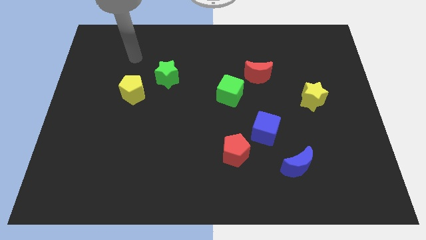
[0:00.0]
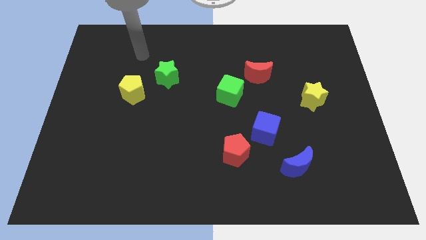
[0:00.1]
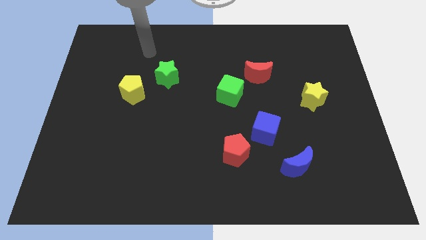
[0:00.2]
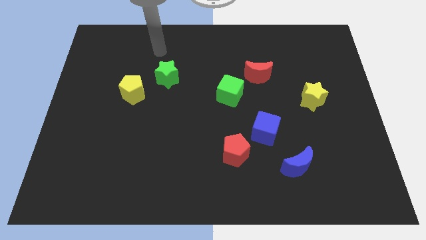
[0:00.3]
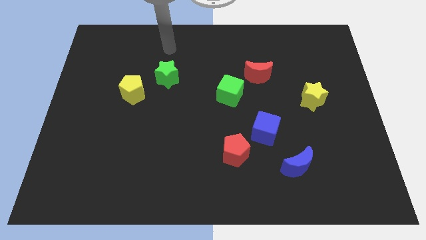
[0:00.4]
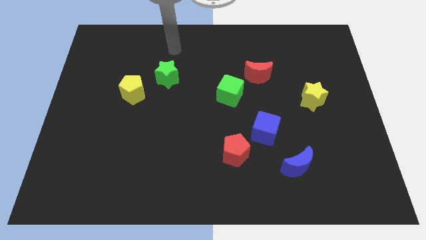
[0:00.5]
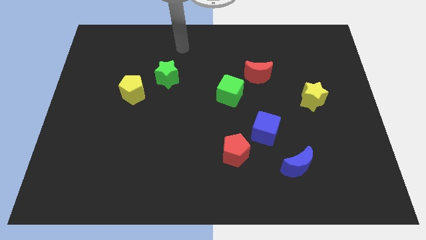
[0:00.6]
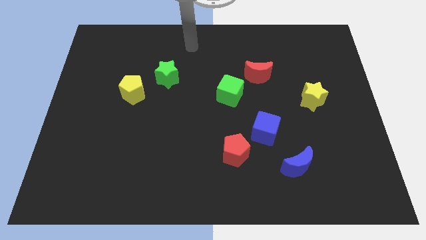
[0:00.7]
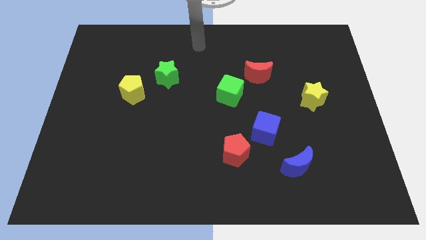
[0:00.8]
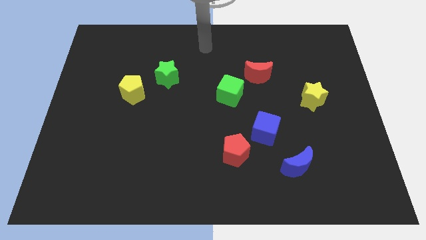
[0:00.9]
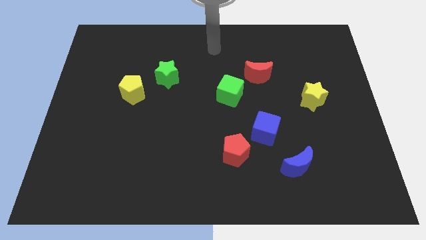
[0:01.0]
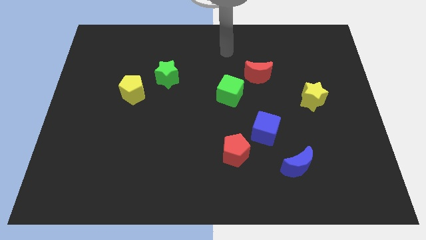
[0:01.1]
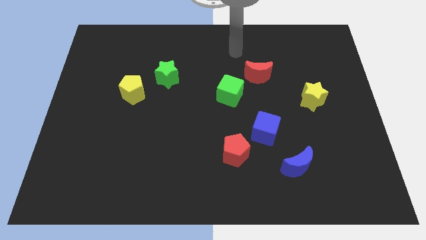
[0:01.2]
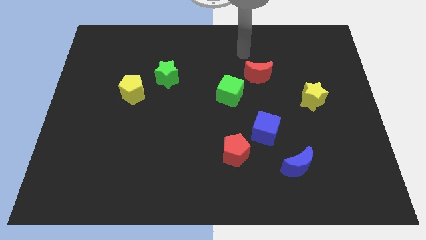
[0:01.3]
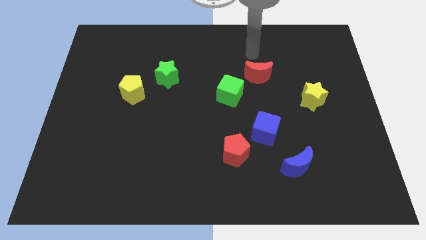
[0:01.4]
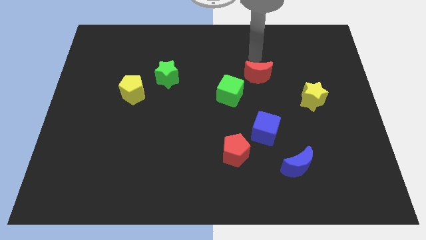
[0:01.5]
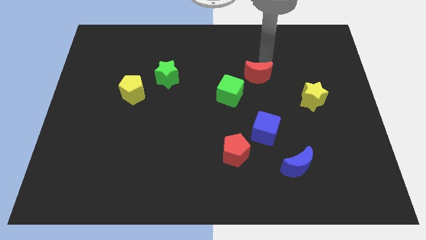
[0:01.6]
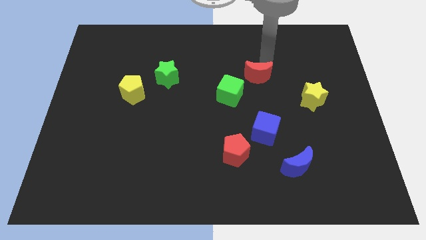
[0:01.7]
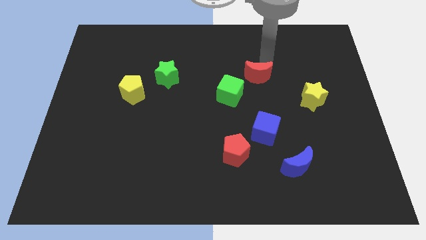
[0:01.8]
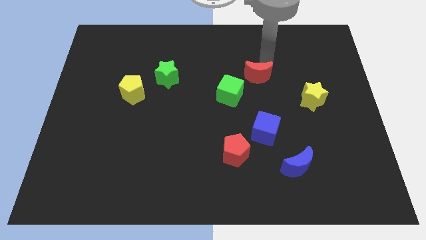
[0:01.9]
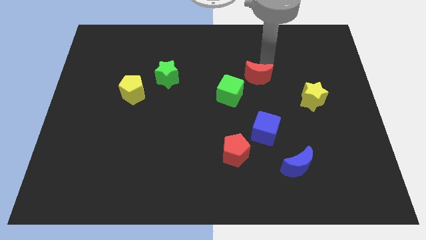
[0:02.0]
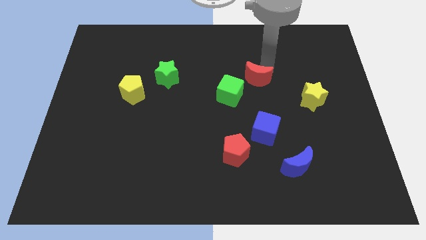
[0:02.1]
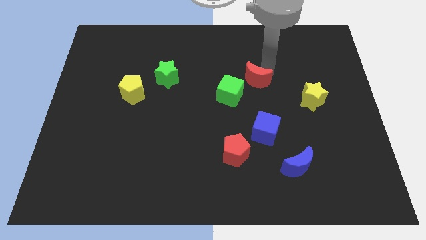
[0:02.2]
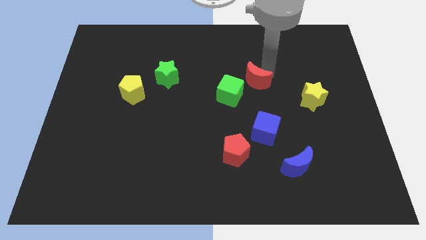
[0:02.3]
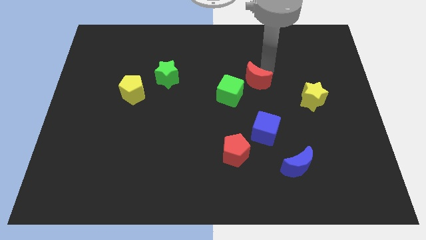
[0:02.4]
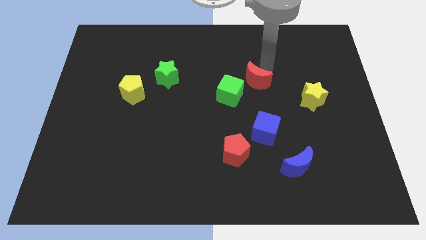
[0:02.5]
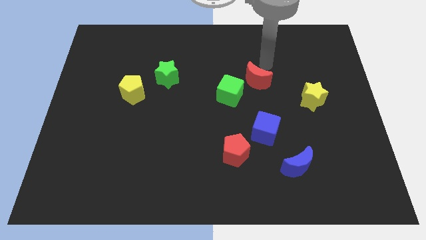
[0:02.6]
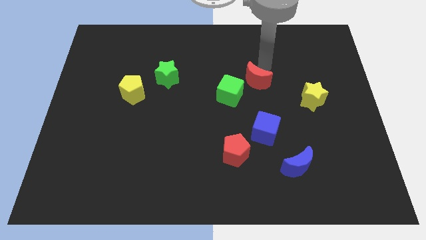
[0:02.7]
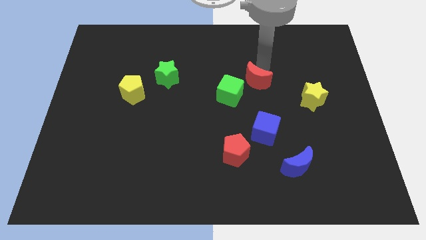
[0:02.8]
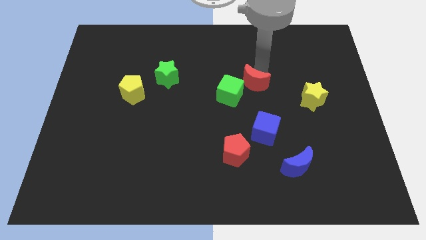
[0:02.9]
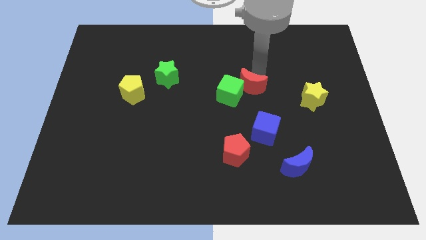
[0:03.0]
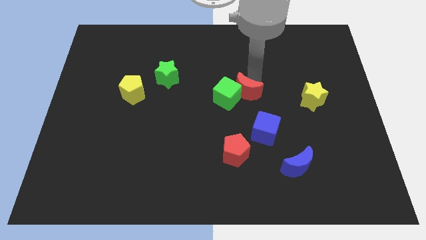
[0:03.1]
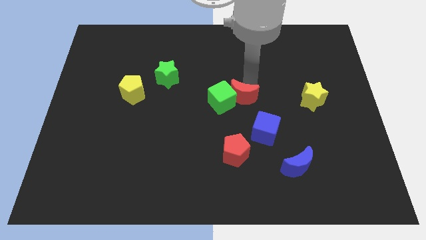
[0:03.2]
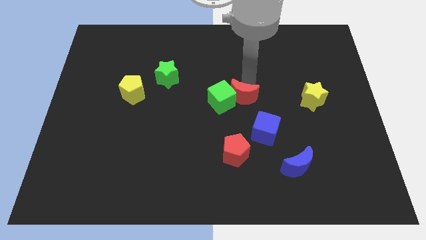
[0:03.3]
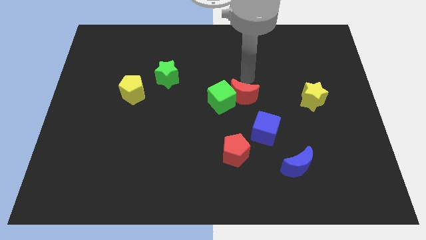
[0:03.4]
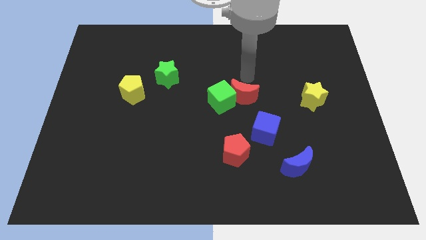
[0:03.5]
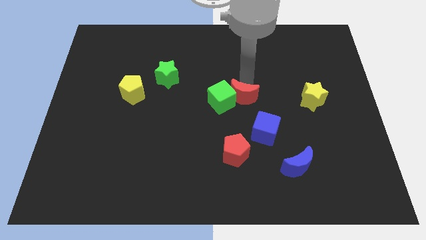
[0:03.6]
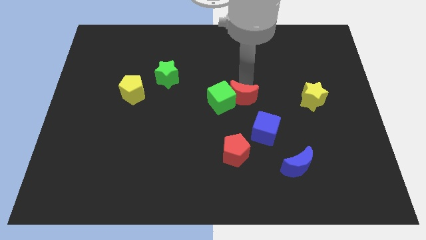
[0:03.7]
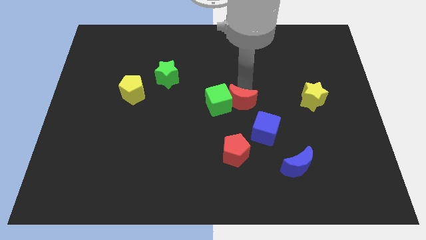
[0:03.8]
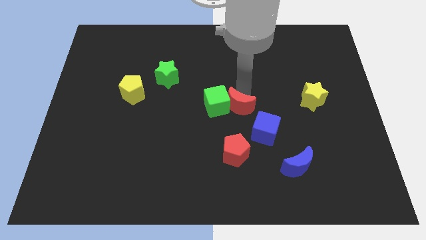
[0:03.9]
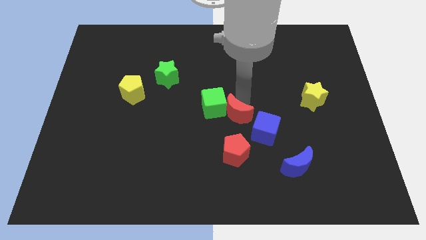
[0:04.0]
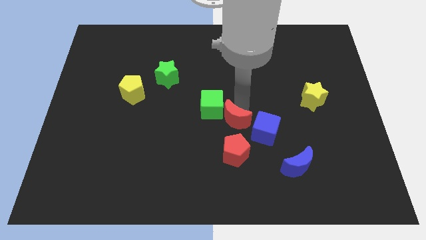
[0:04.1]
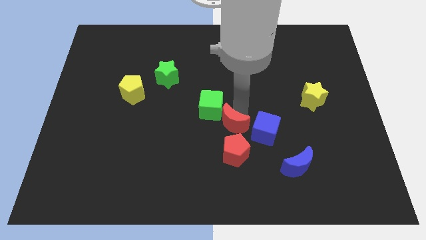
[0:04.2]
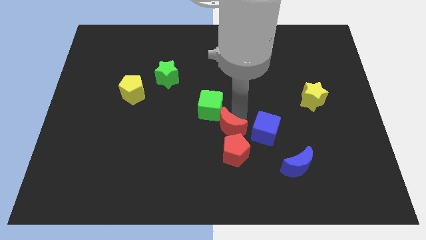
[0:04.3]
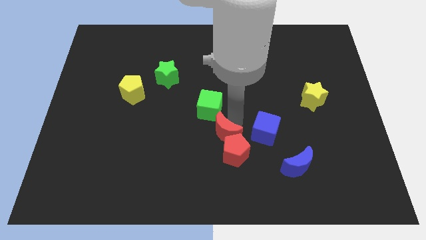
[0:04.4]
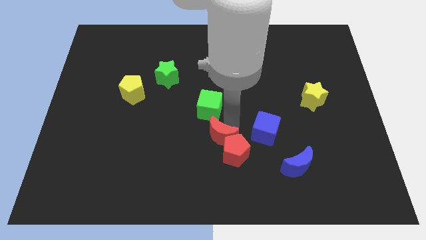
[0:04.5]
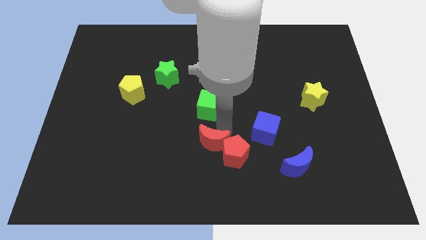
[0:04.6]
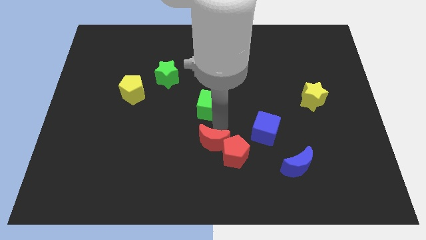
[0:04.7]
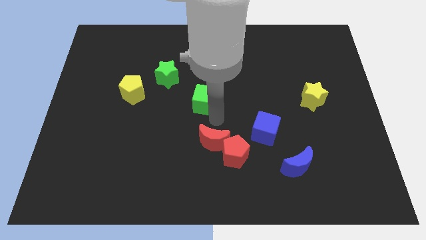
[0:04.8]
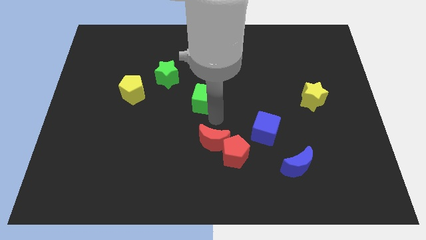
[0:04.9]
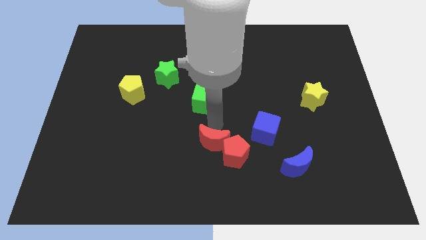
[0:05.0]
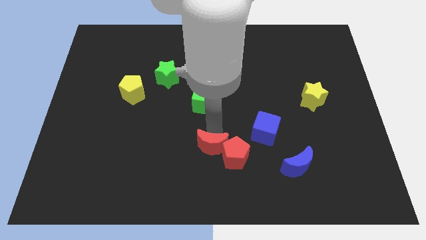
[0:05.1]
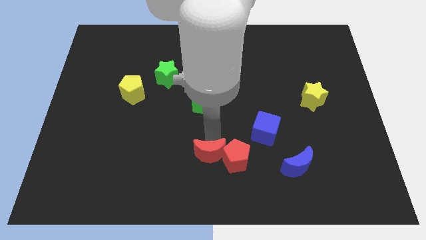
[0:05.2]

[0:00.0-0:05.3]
move the red moon to the bottom left side of the red pentagon

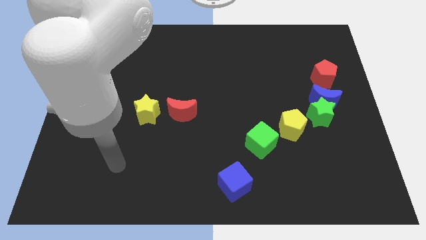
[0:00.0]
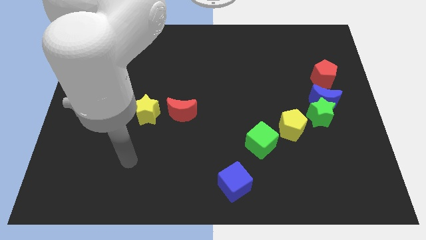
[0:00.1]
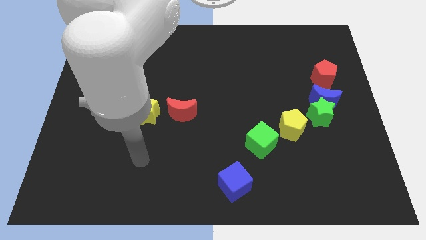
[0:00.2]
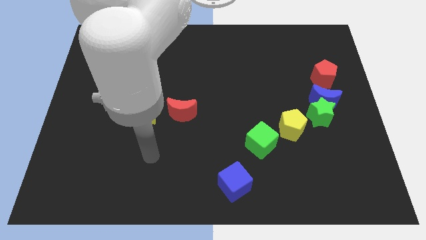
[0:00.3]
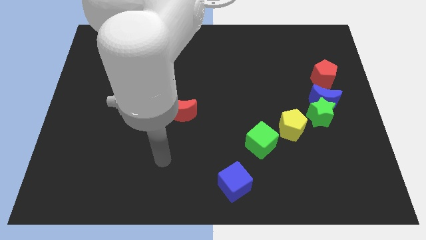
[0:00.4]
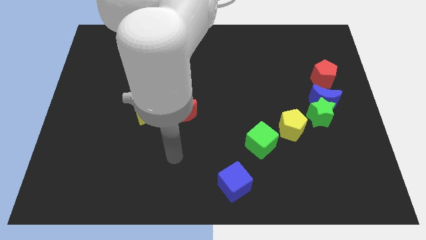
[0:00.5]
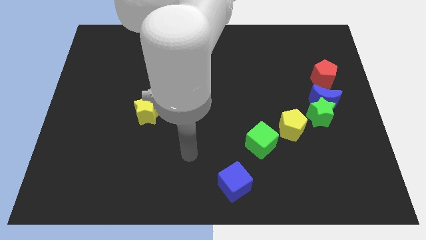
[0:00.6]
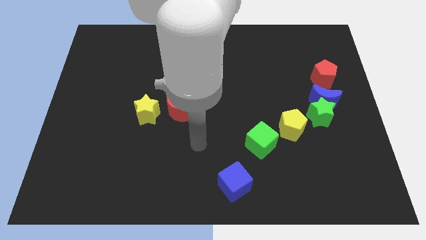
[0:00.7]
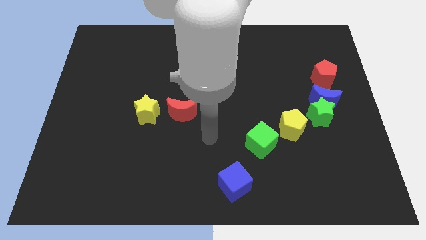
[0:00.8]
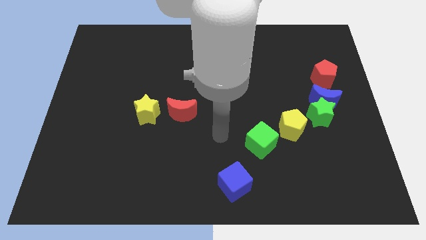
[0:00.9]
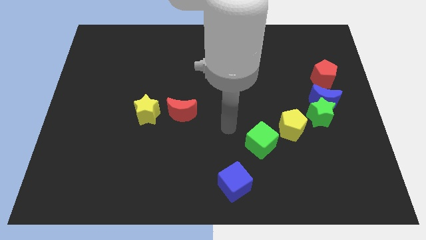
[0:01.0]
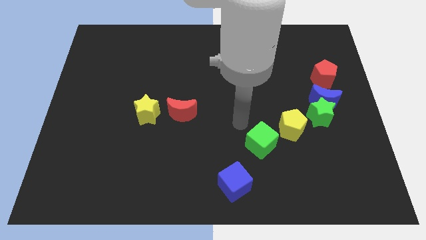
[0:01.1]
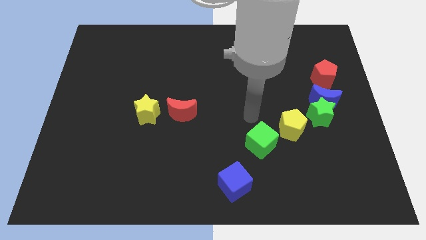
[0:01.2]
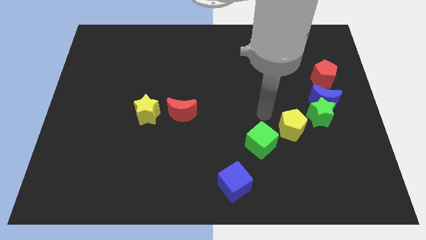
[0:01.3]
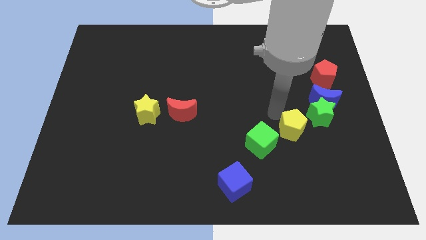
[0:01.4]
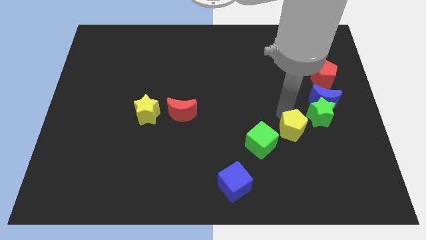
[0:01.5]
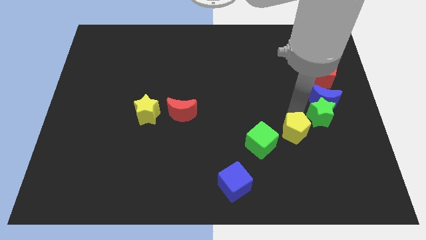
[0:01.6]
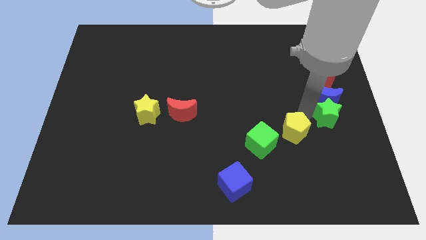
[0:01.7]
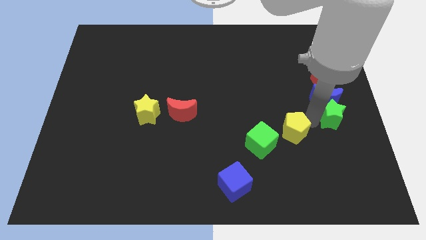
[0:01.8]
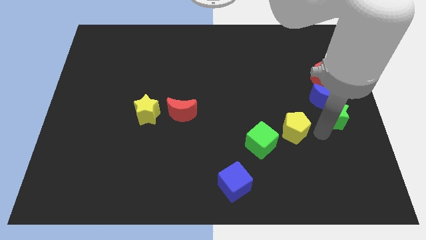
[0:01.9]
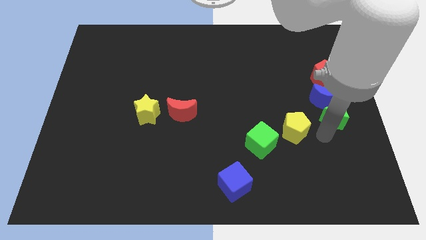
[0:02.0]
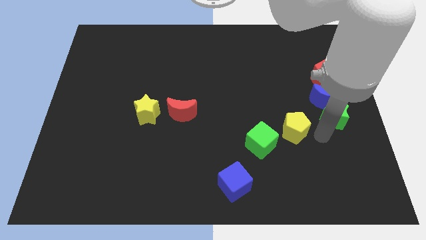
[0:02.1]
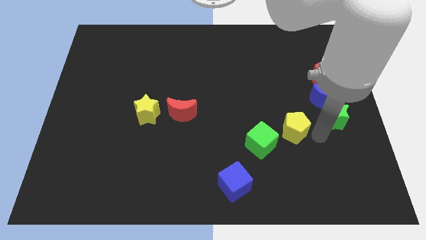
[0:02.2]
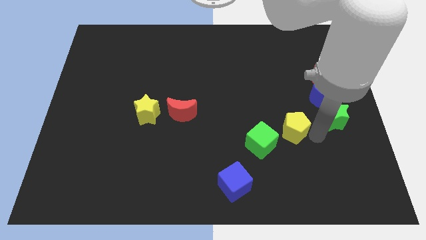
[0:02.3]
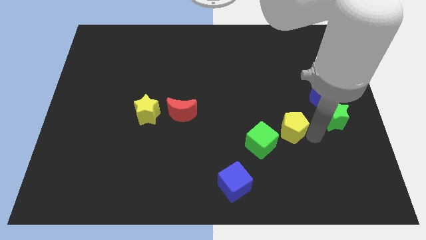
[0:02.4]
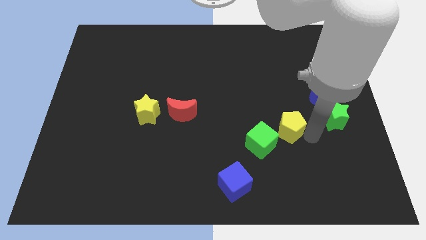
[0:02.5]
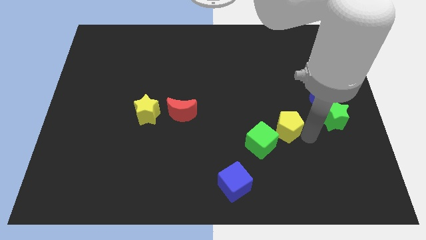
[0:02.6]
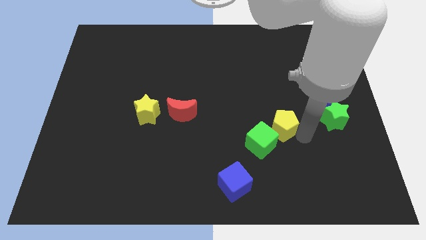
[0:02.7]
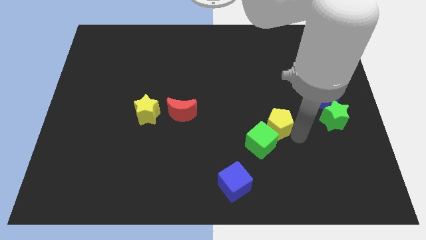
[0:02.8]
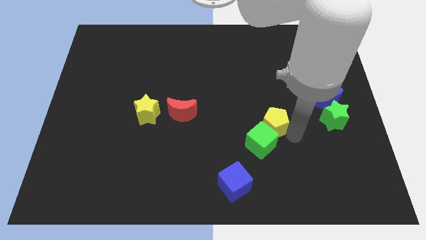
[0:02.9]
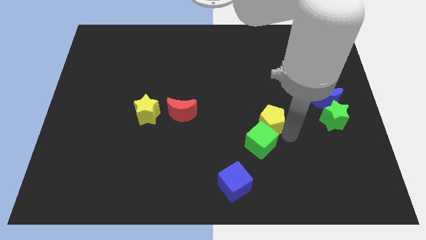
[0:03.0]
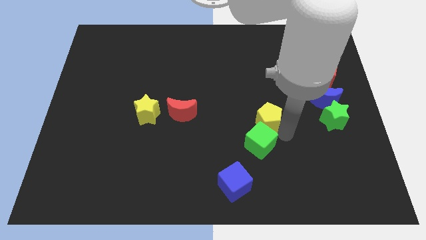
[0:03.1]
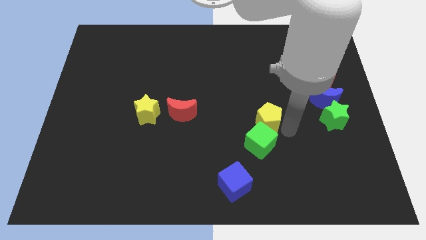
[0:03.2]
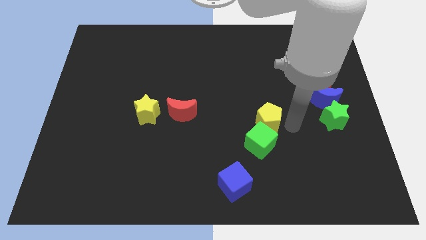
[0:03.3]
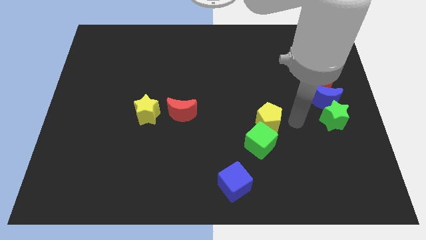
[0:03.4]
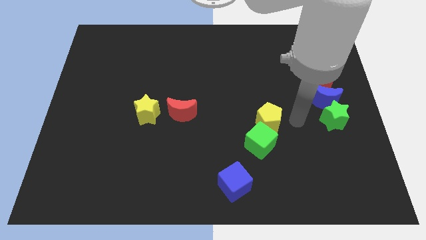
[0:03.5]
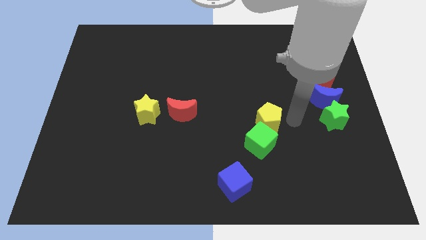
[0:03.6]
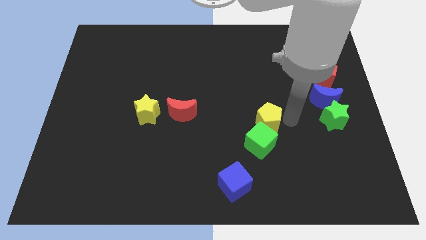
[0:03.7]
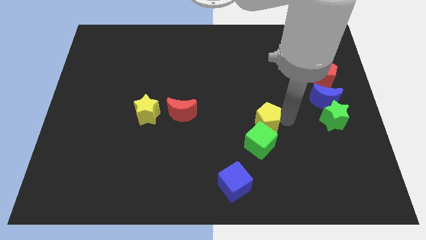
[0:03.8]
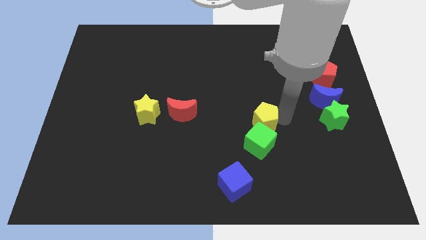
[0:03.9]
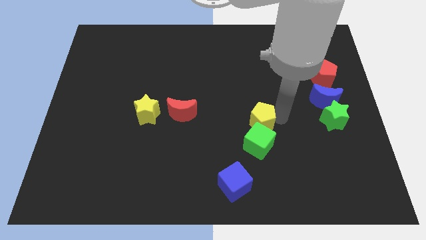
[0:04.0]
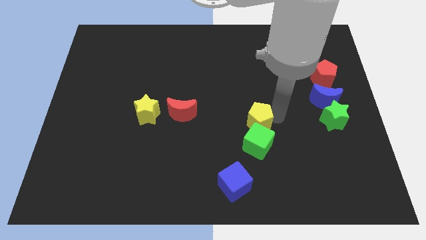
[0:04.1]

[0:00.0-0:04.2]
slide the yellow pentagon to the top left of the green cube
